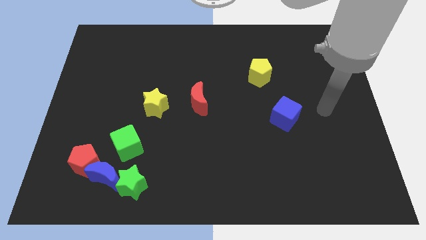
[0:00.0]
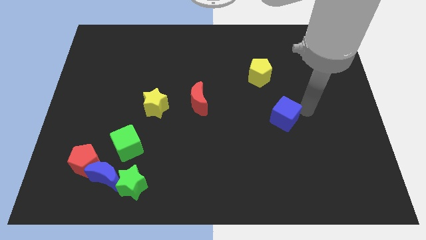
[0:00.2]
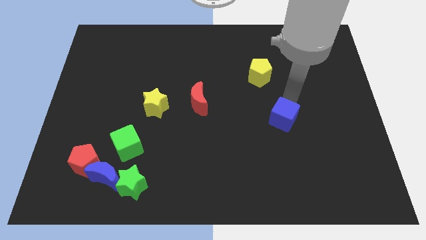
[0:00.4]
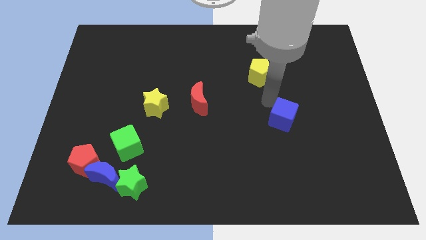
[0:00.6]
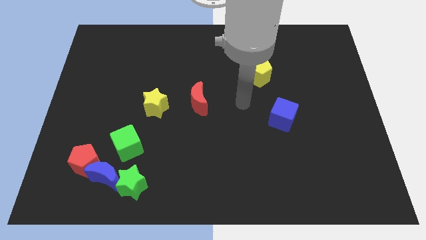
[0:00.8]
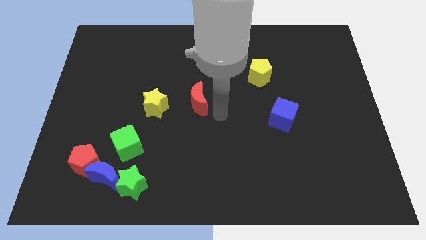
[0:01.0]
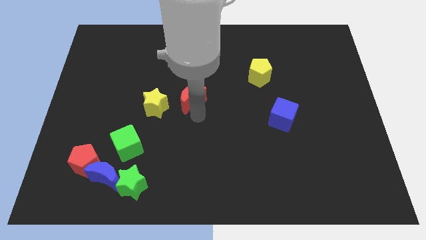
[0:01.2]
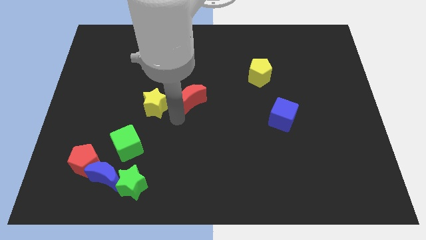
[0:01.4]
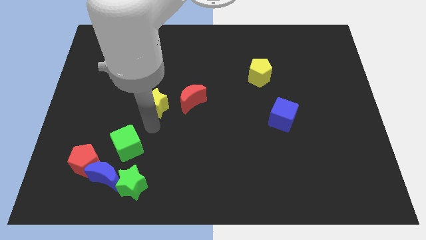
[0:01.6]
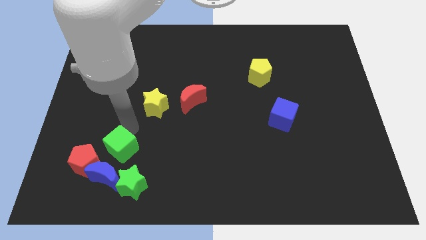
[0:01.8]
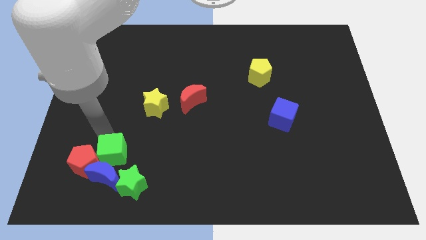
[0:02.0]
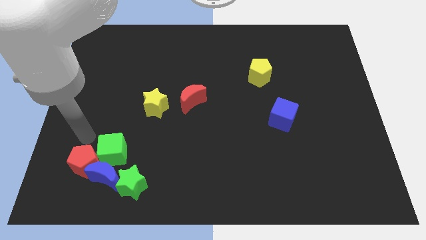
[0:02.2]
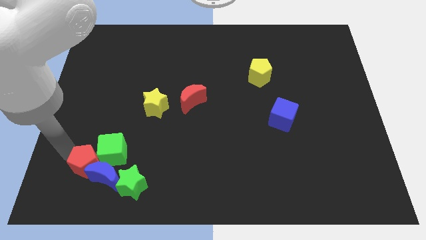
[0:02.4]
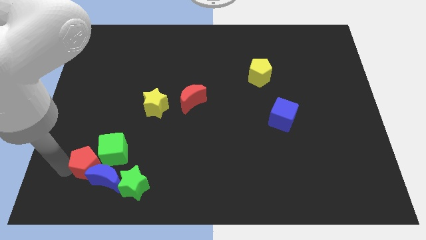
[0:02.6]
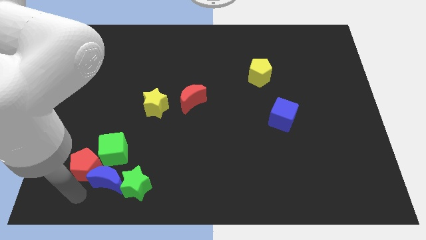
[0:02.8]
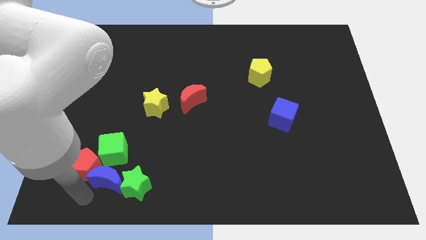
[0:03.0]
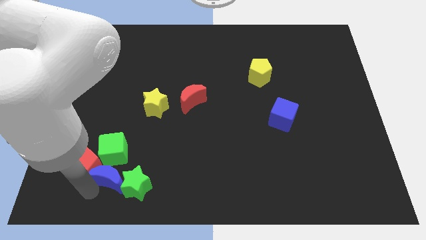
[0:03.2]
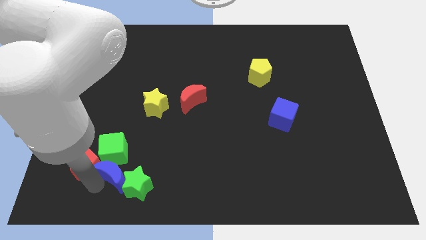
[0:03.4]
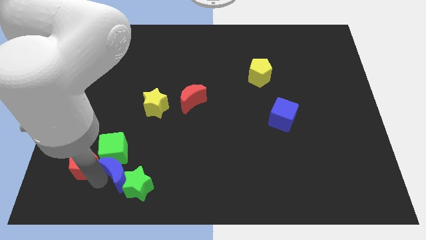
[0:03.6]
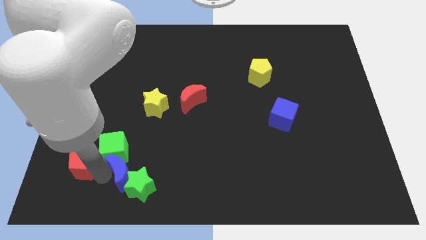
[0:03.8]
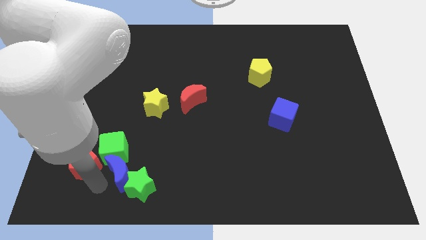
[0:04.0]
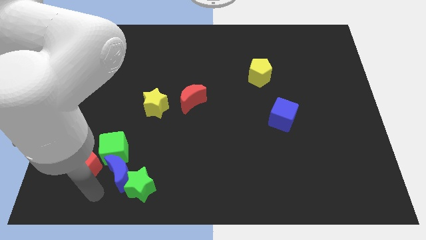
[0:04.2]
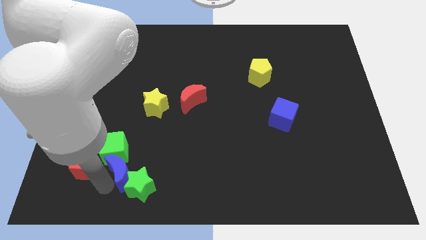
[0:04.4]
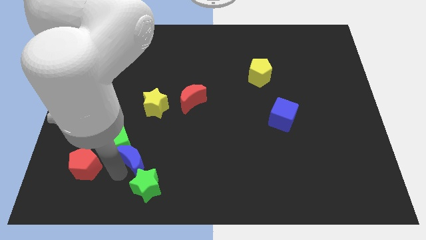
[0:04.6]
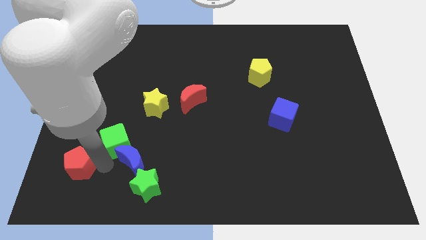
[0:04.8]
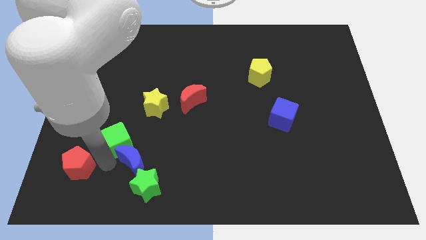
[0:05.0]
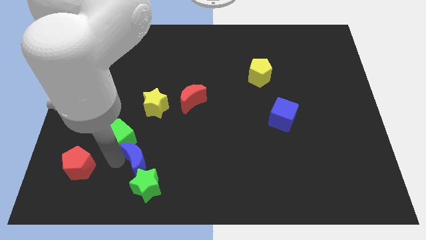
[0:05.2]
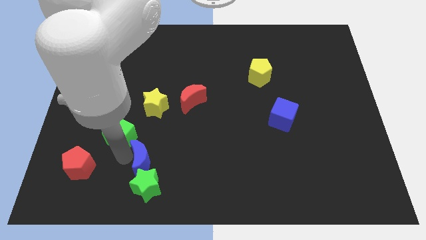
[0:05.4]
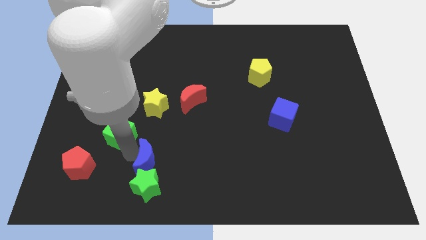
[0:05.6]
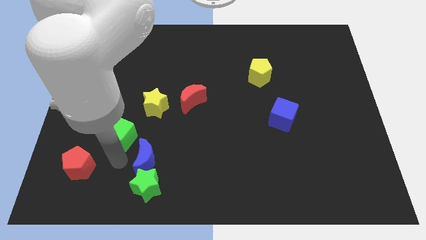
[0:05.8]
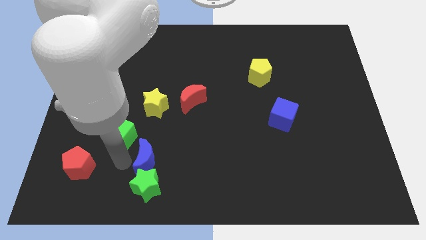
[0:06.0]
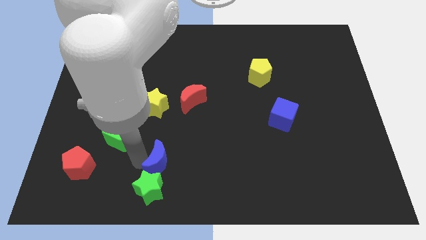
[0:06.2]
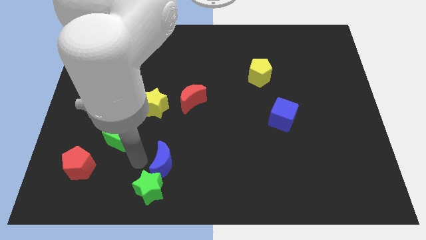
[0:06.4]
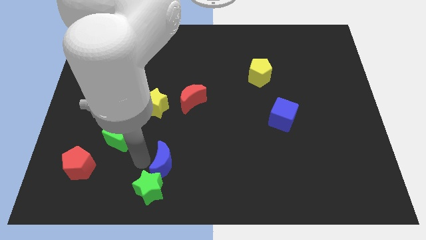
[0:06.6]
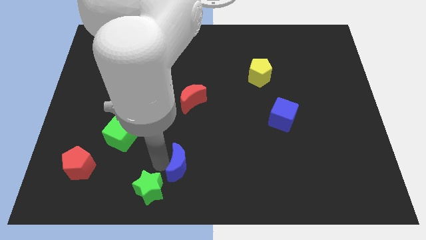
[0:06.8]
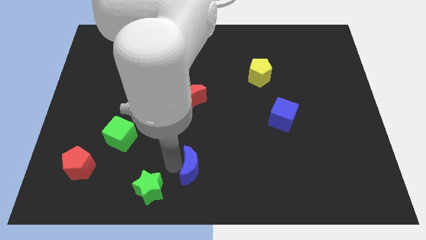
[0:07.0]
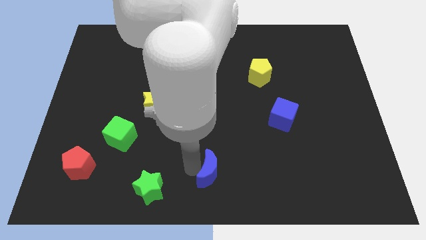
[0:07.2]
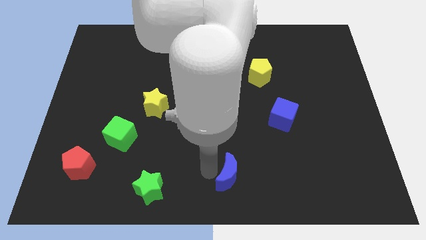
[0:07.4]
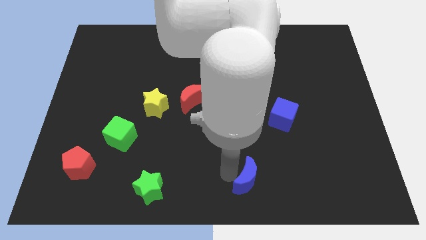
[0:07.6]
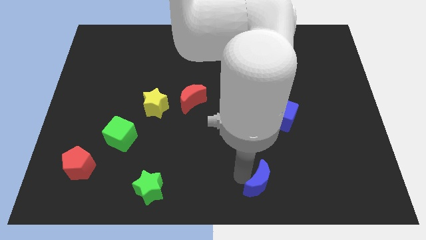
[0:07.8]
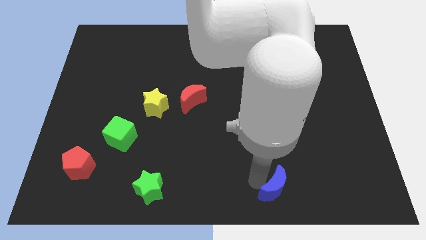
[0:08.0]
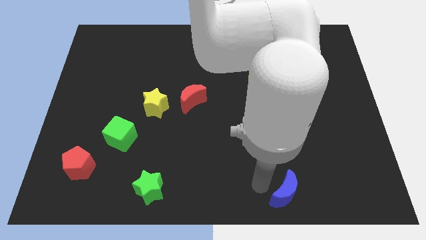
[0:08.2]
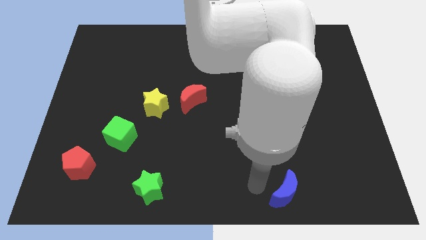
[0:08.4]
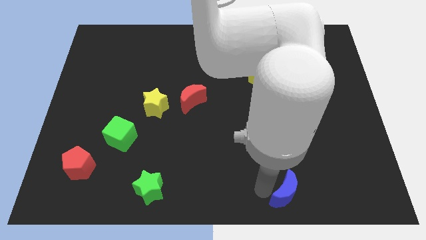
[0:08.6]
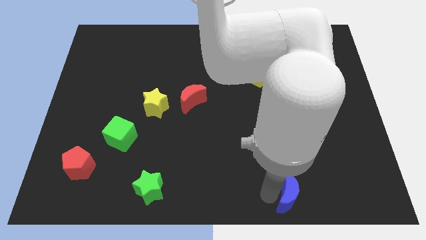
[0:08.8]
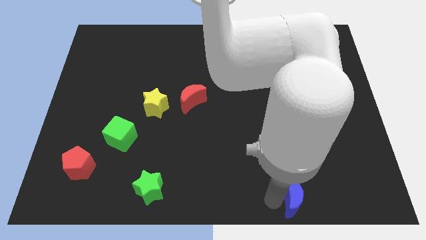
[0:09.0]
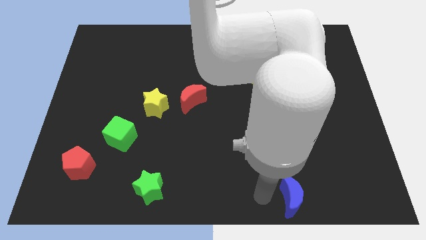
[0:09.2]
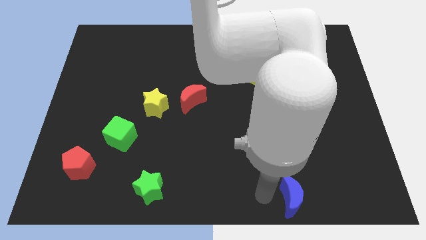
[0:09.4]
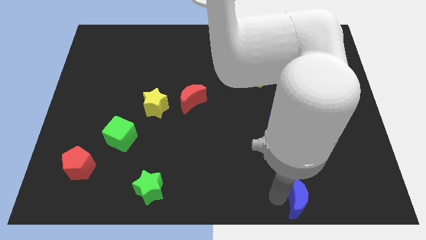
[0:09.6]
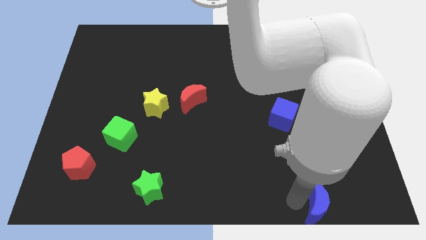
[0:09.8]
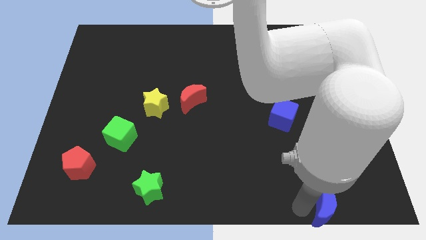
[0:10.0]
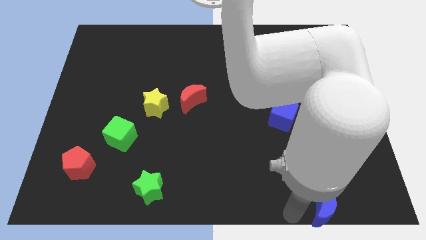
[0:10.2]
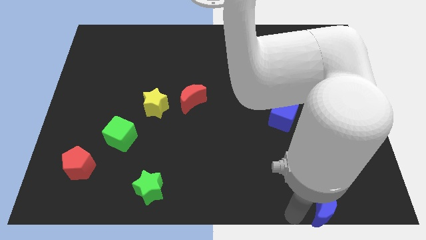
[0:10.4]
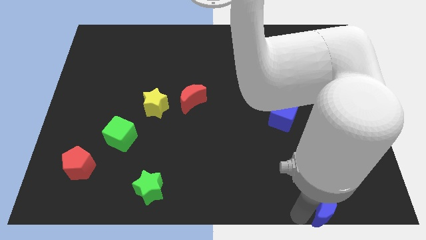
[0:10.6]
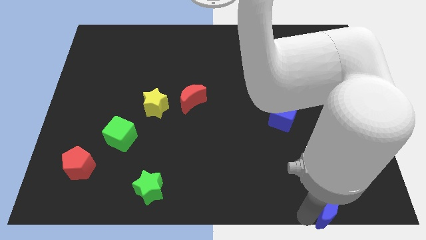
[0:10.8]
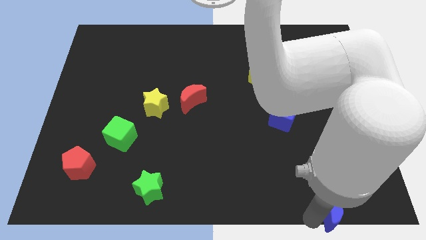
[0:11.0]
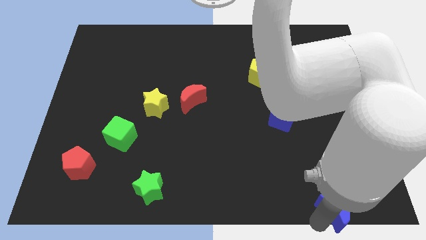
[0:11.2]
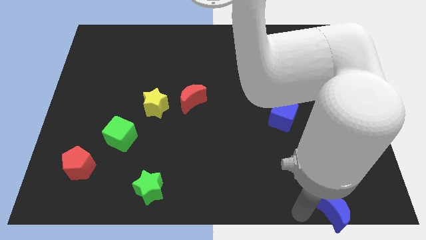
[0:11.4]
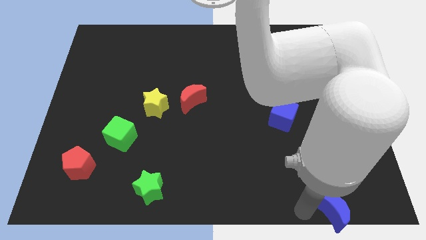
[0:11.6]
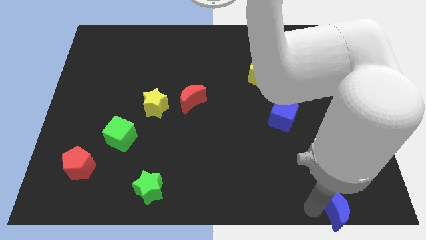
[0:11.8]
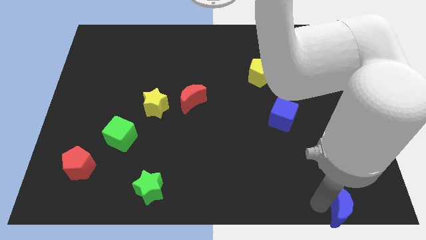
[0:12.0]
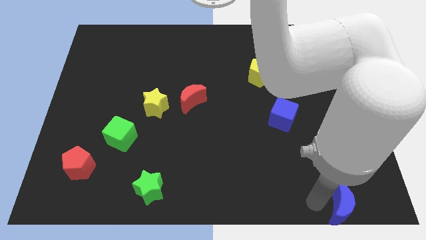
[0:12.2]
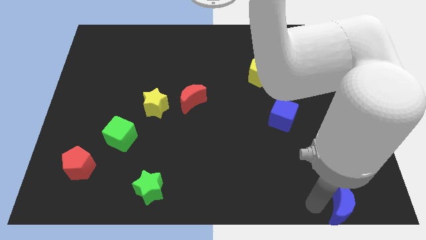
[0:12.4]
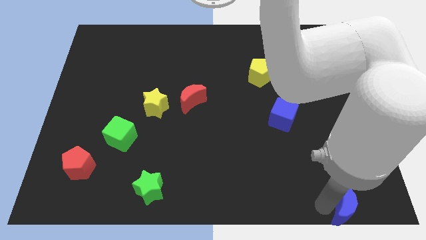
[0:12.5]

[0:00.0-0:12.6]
put the blue moon to the bottom right

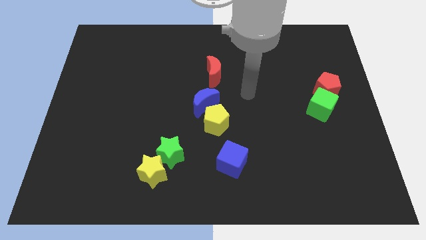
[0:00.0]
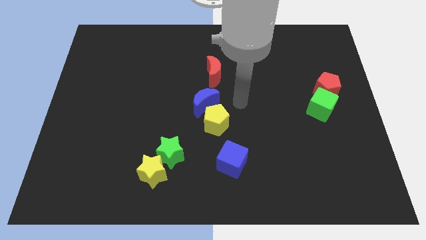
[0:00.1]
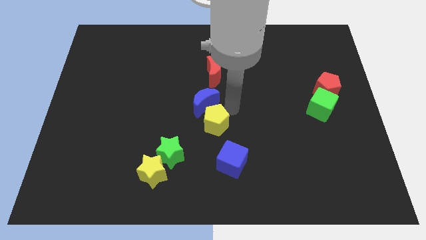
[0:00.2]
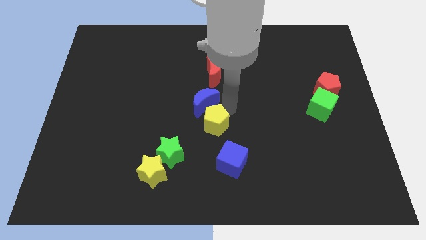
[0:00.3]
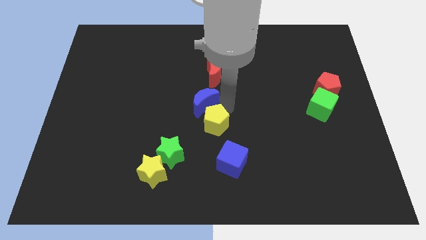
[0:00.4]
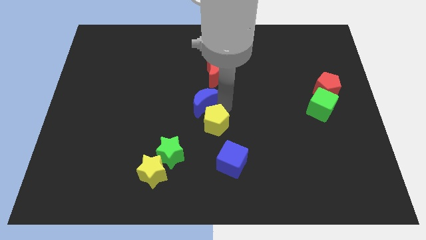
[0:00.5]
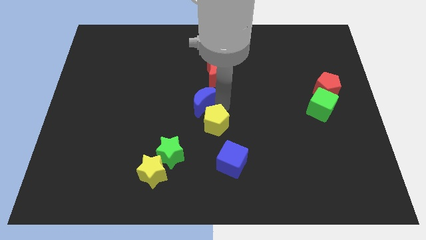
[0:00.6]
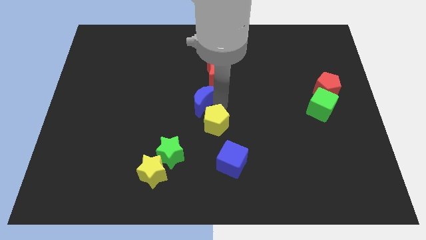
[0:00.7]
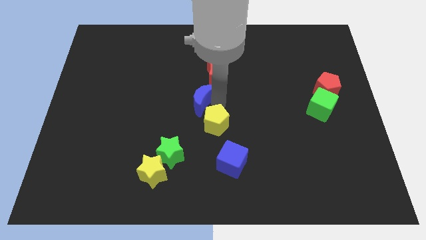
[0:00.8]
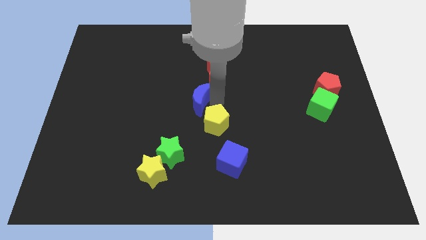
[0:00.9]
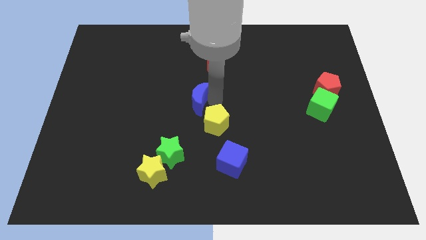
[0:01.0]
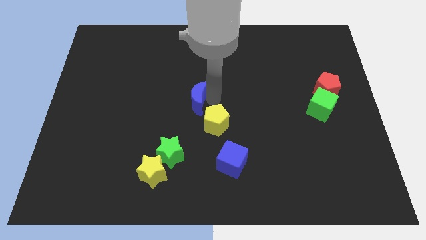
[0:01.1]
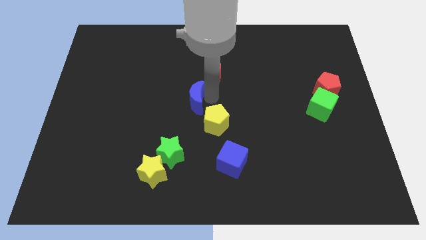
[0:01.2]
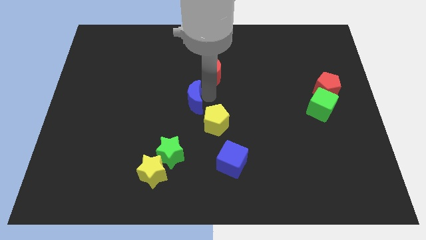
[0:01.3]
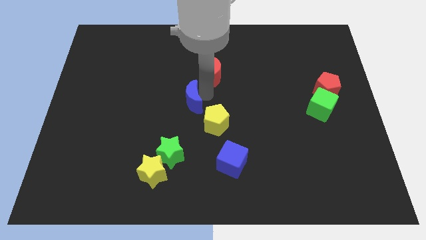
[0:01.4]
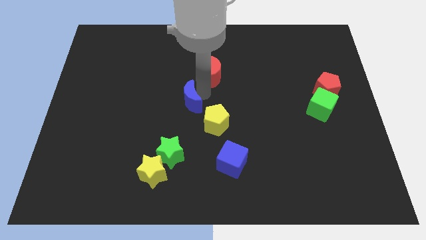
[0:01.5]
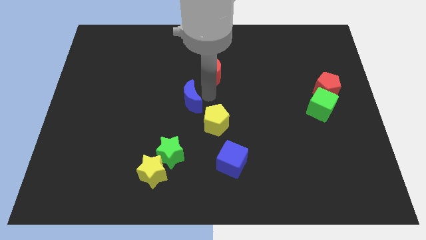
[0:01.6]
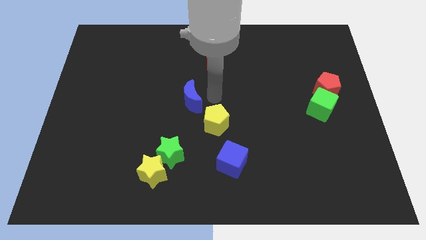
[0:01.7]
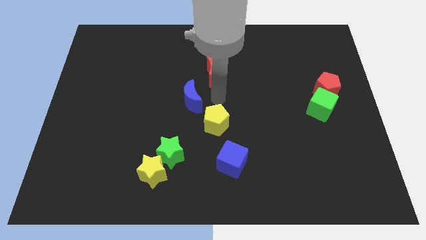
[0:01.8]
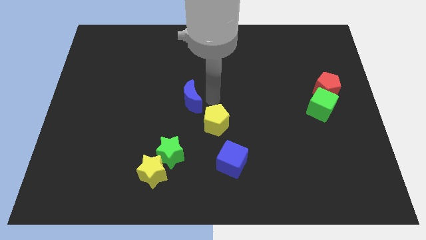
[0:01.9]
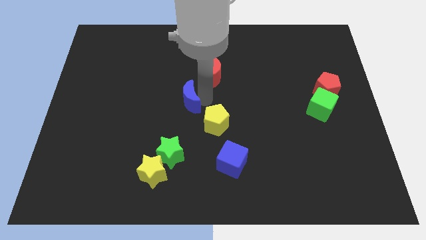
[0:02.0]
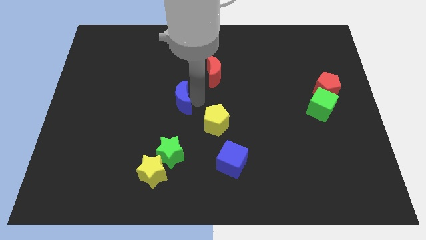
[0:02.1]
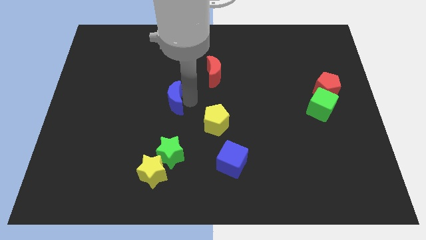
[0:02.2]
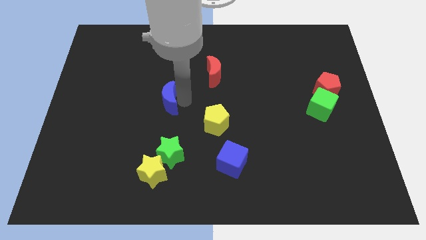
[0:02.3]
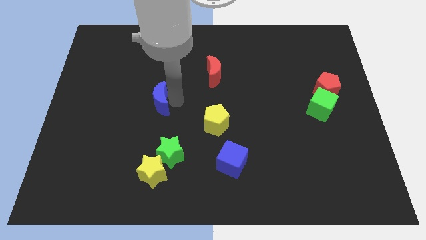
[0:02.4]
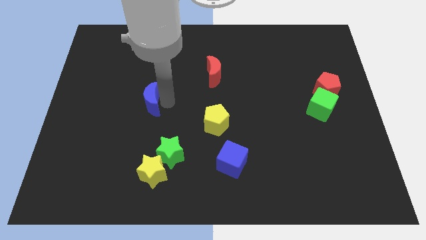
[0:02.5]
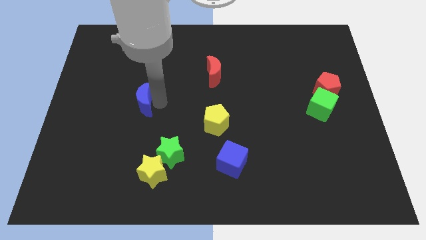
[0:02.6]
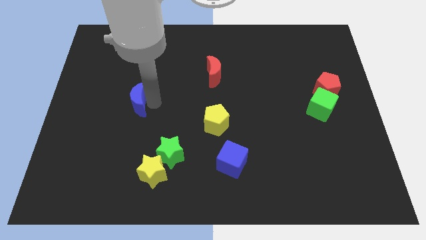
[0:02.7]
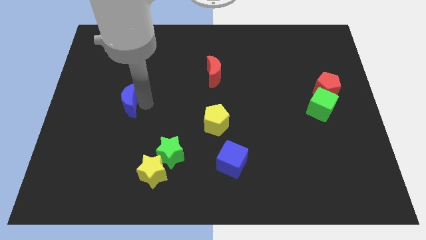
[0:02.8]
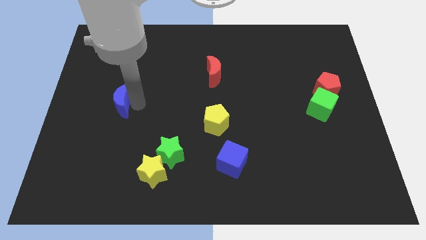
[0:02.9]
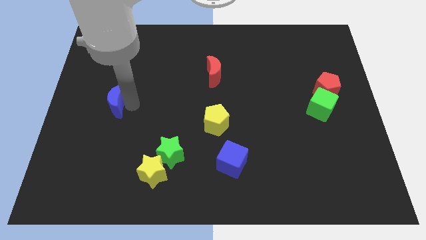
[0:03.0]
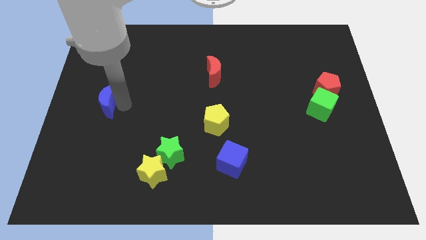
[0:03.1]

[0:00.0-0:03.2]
move the blue moon to the left side
